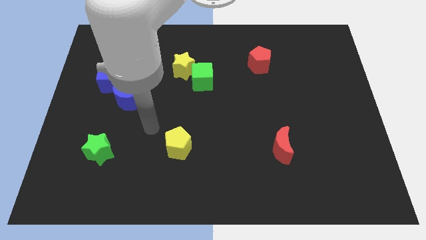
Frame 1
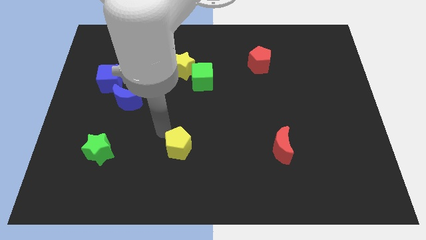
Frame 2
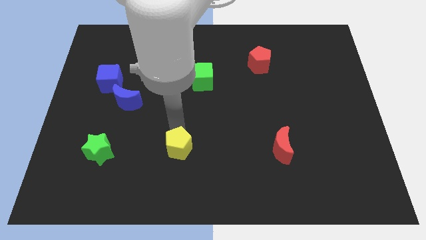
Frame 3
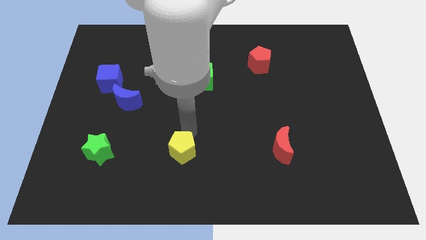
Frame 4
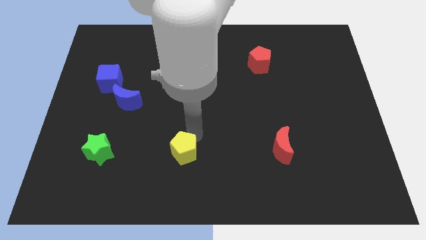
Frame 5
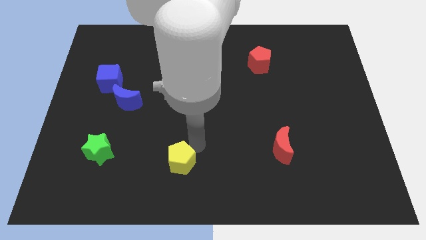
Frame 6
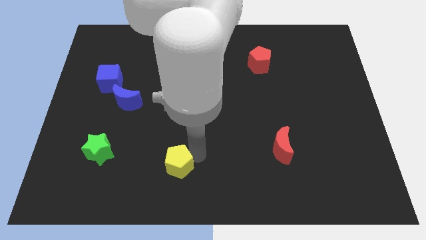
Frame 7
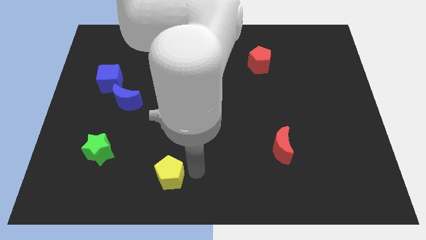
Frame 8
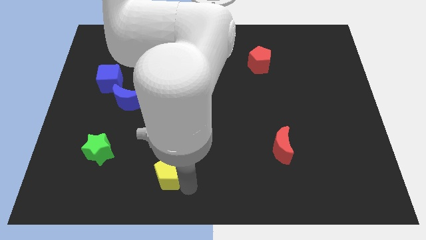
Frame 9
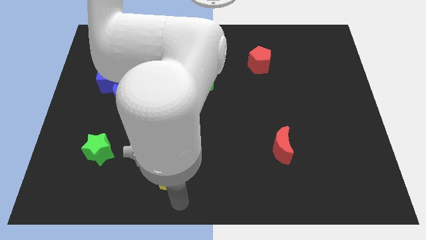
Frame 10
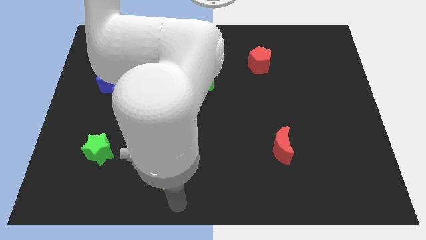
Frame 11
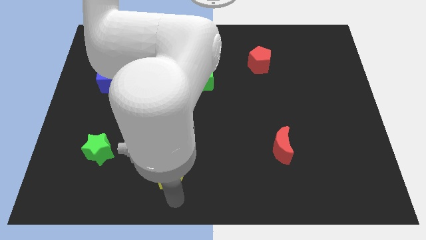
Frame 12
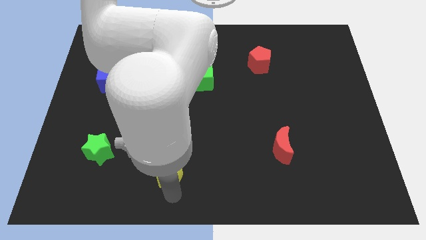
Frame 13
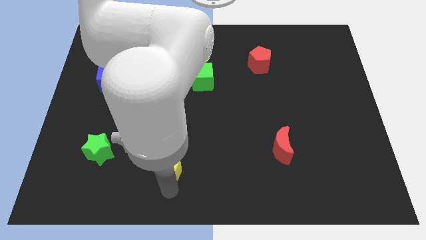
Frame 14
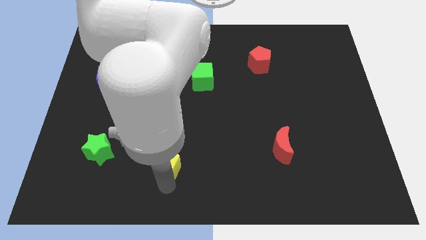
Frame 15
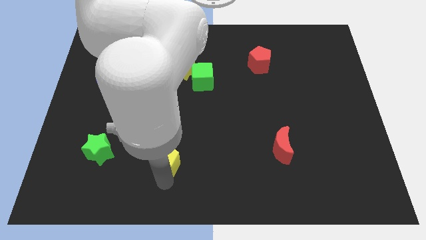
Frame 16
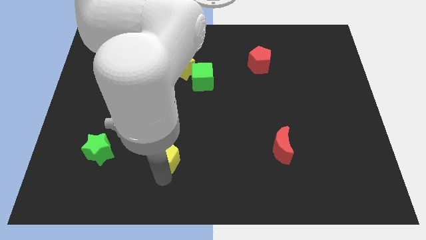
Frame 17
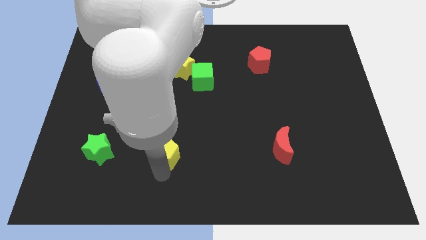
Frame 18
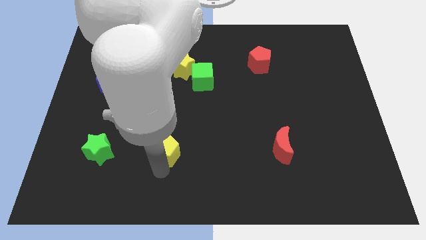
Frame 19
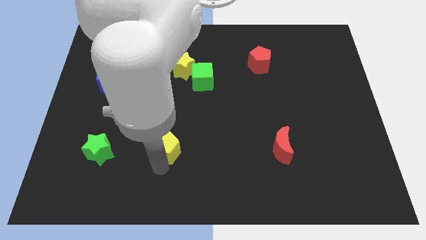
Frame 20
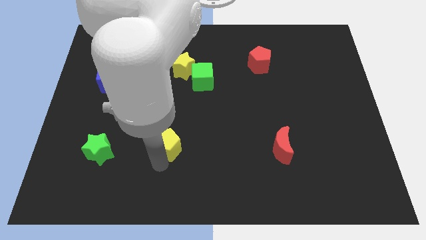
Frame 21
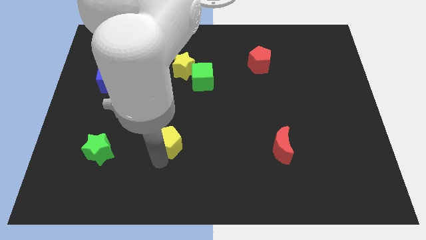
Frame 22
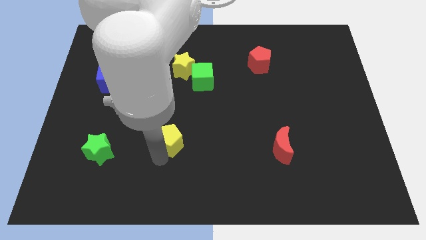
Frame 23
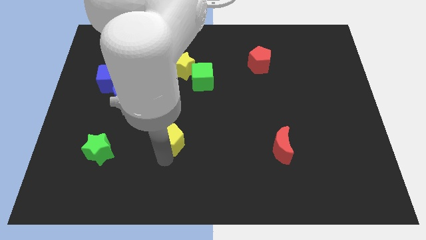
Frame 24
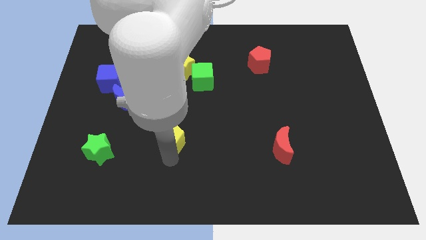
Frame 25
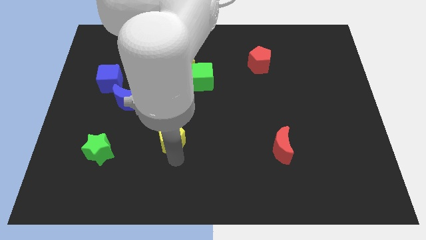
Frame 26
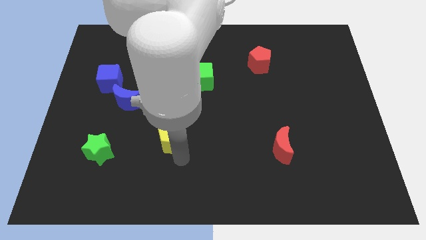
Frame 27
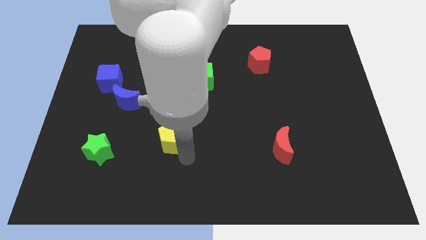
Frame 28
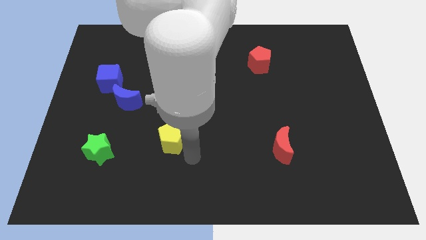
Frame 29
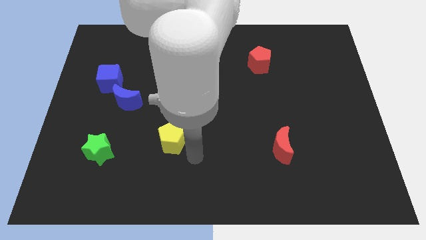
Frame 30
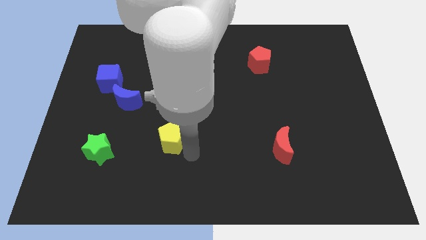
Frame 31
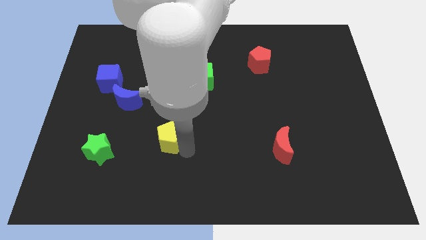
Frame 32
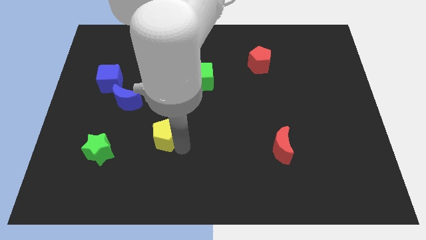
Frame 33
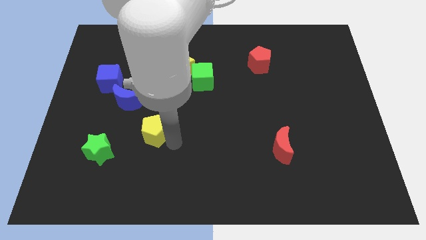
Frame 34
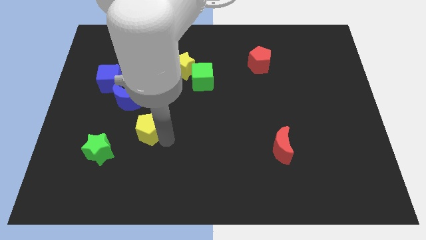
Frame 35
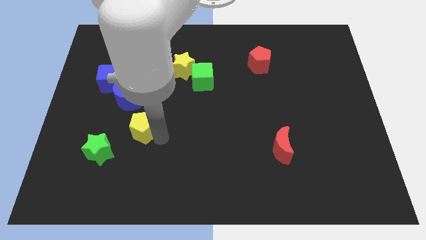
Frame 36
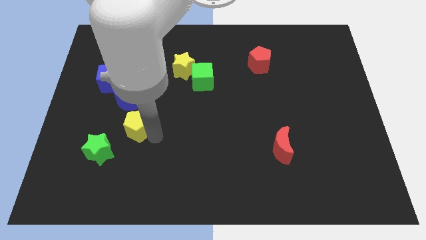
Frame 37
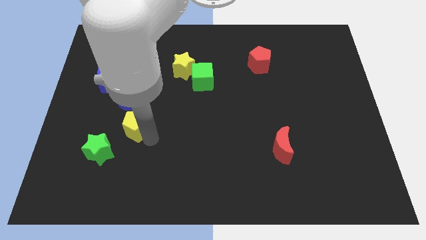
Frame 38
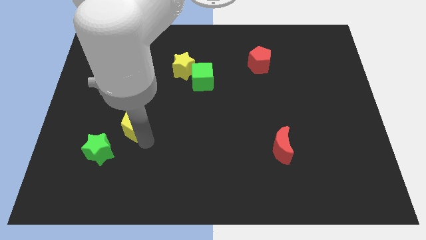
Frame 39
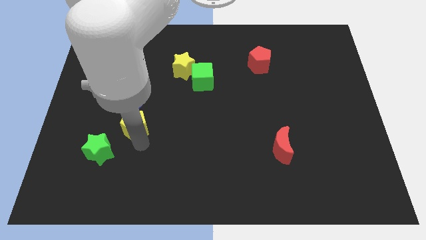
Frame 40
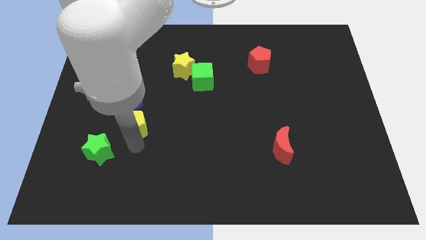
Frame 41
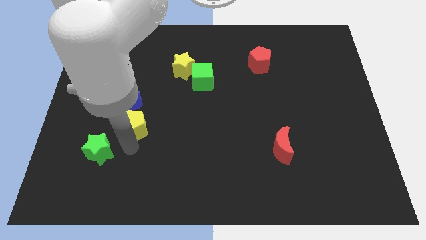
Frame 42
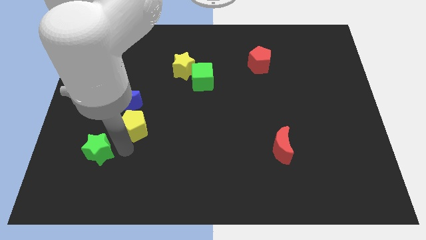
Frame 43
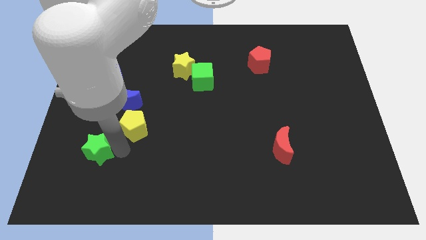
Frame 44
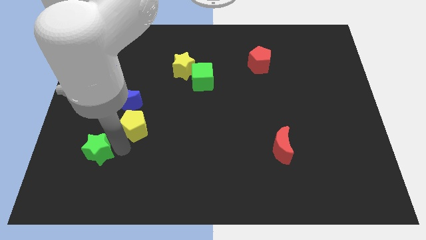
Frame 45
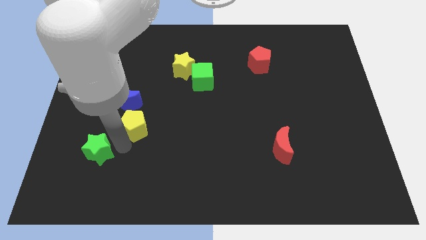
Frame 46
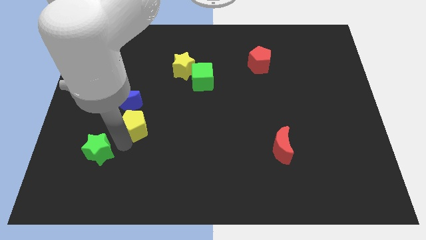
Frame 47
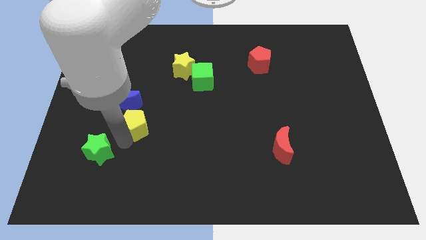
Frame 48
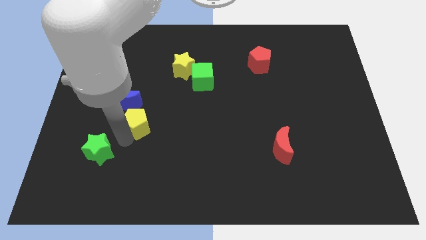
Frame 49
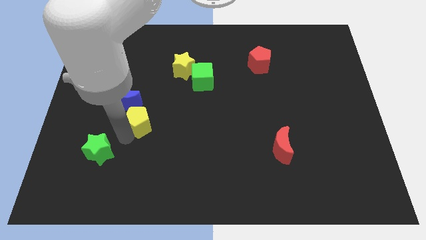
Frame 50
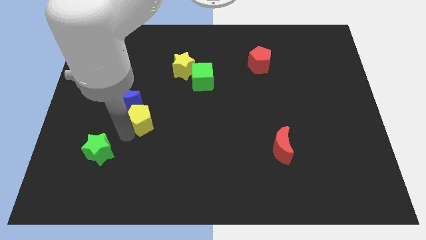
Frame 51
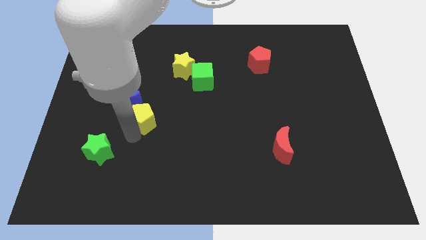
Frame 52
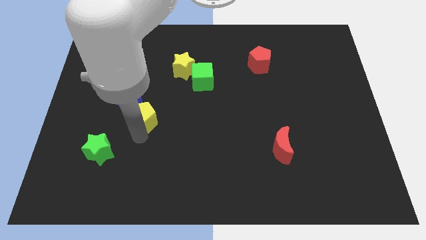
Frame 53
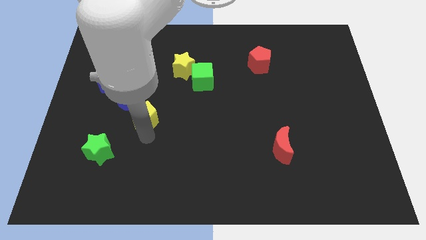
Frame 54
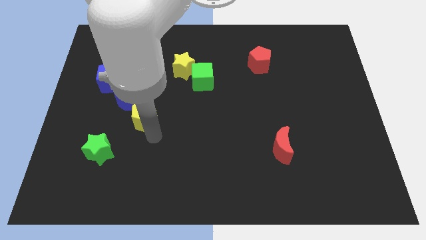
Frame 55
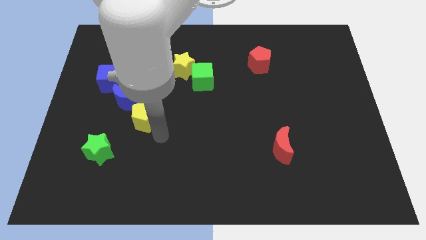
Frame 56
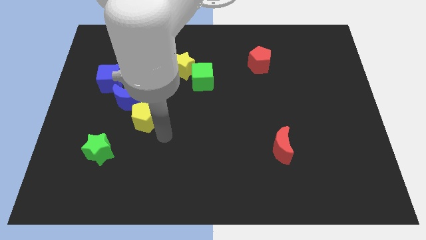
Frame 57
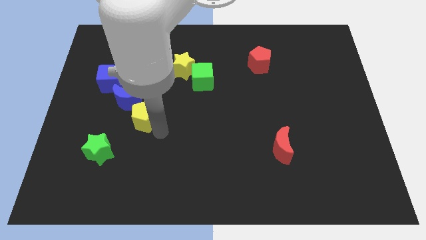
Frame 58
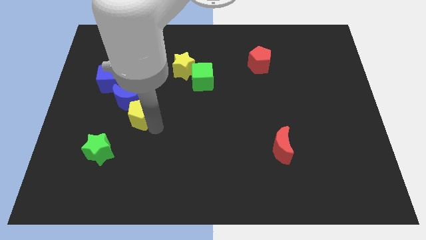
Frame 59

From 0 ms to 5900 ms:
move the yellow pentagon close to the blue moon

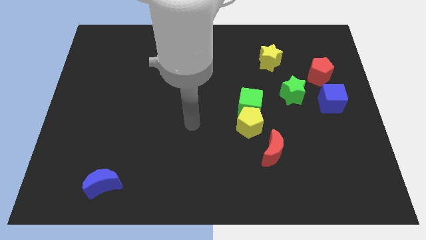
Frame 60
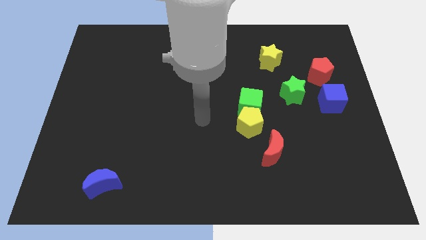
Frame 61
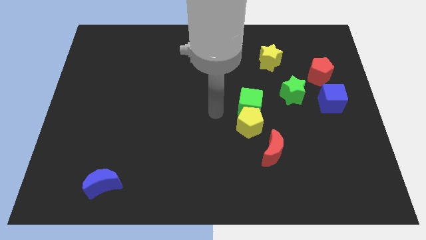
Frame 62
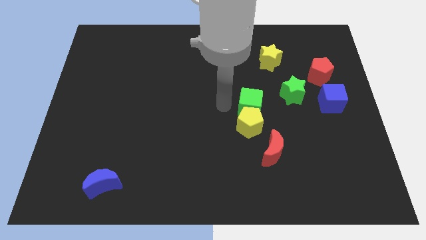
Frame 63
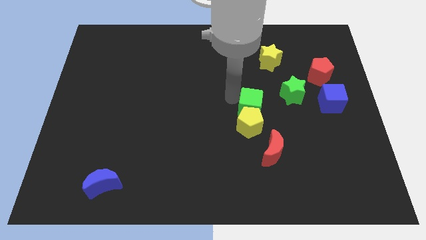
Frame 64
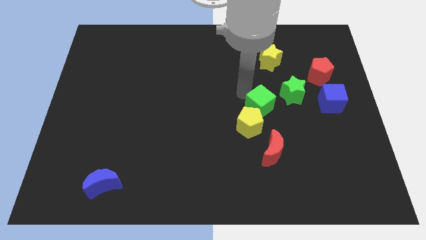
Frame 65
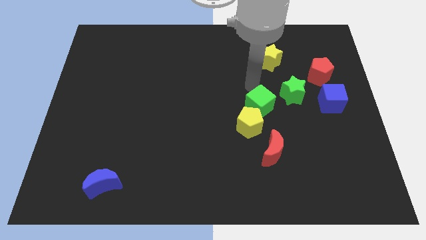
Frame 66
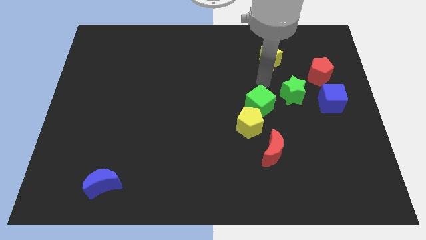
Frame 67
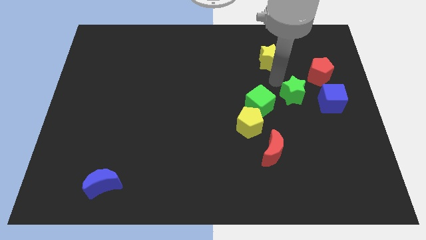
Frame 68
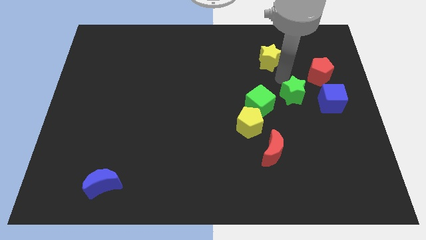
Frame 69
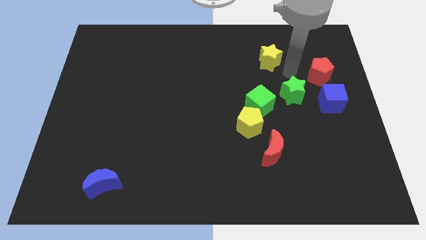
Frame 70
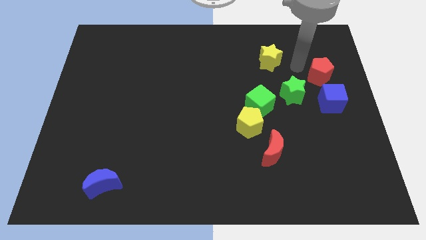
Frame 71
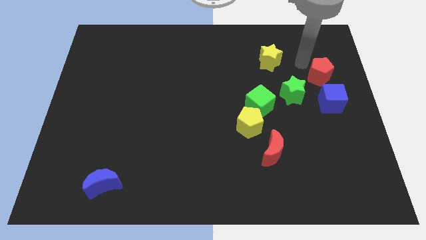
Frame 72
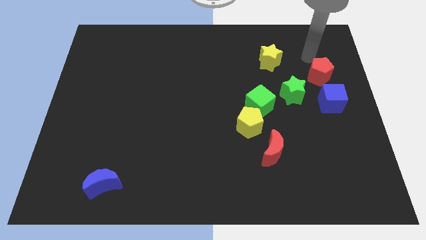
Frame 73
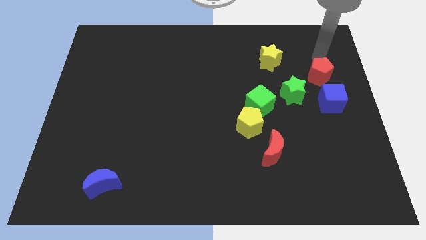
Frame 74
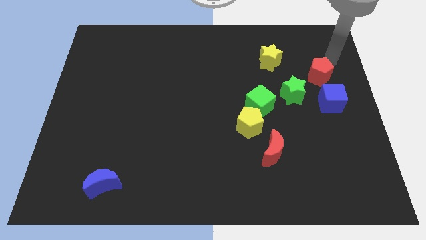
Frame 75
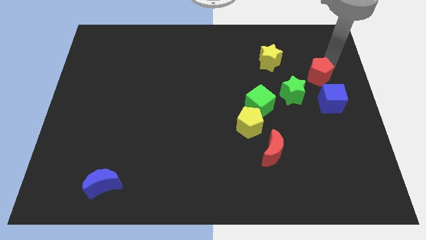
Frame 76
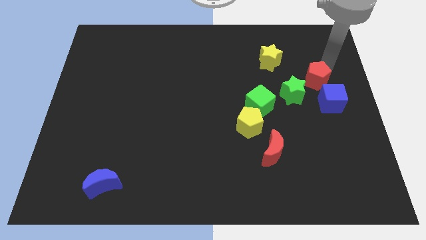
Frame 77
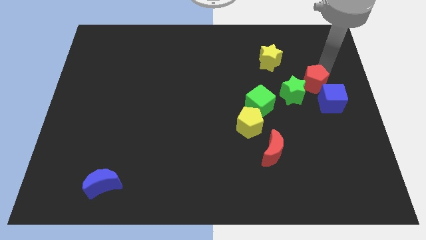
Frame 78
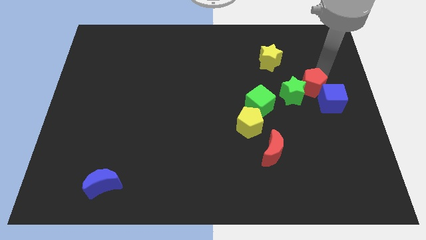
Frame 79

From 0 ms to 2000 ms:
put the red pentagon towards the green star

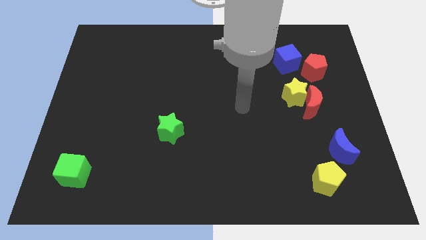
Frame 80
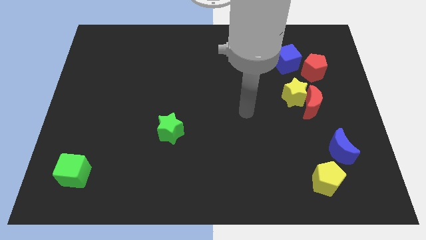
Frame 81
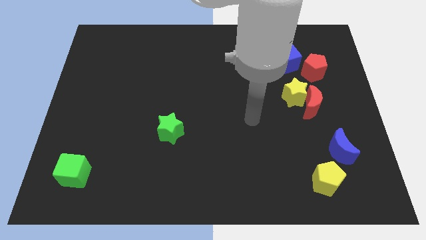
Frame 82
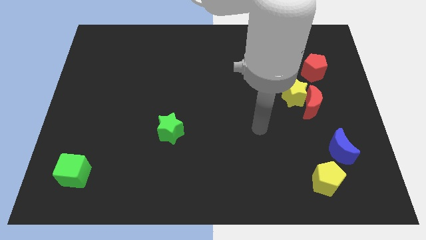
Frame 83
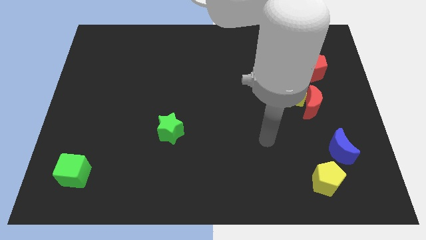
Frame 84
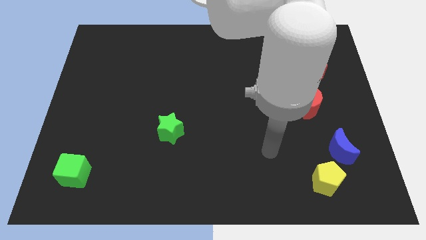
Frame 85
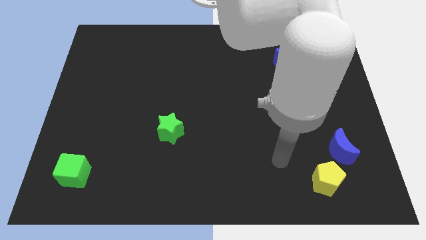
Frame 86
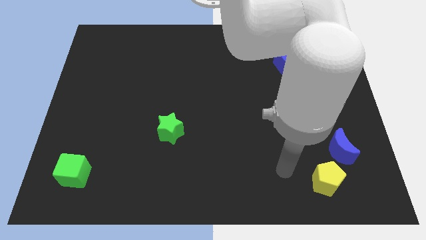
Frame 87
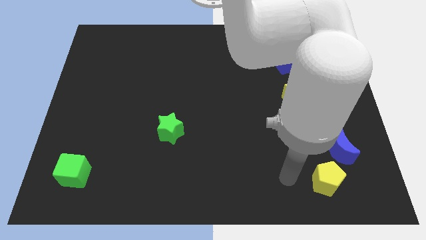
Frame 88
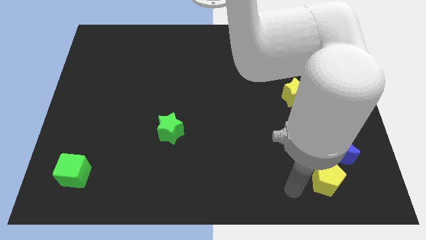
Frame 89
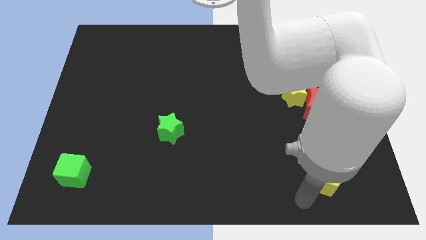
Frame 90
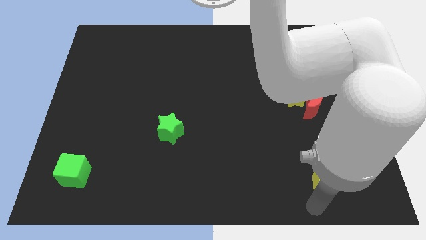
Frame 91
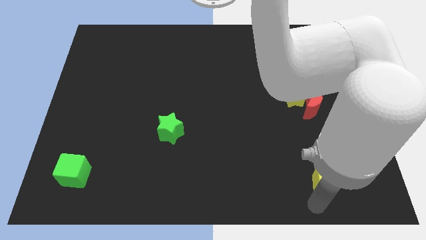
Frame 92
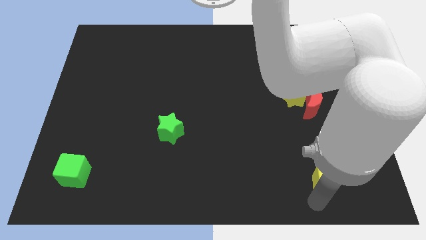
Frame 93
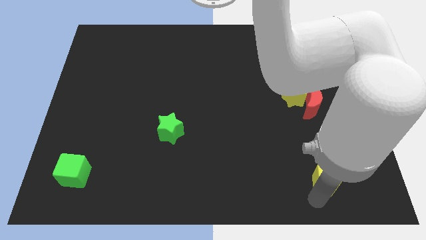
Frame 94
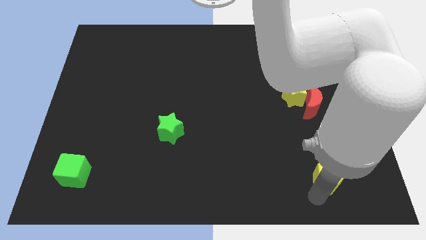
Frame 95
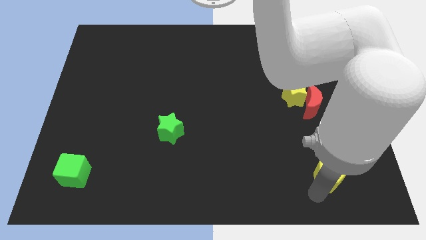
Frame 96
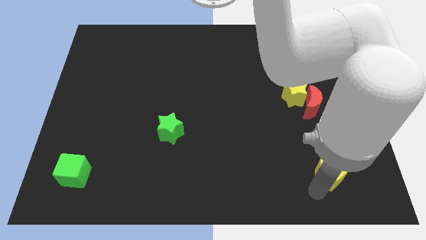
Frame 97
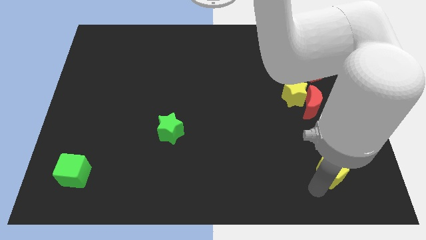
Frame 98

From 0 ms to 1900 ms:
put the yellow pentagon to the blue moon
